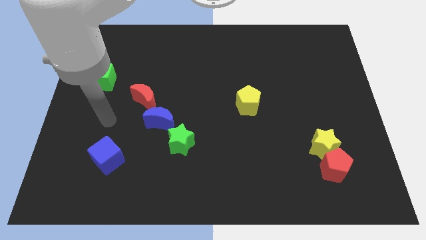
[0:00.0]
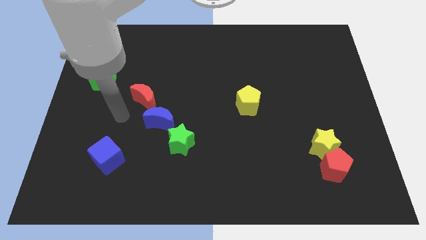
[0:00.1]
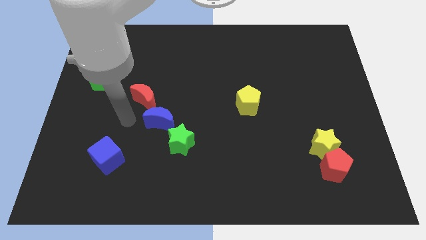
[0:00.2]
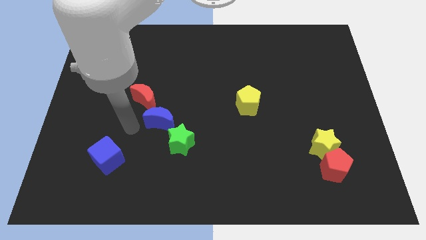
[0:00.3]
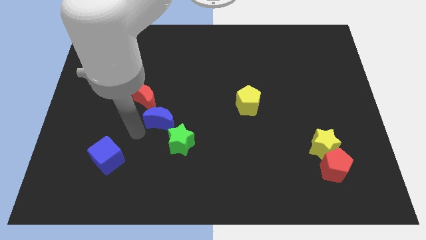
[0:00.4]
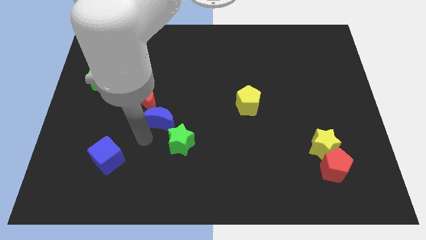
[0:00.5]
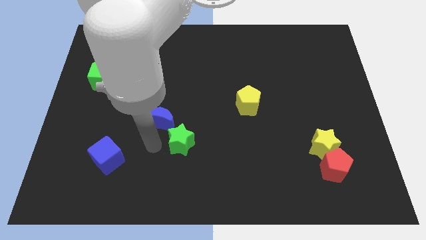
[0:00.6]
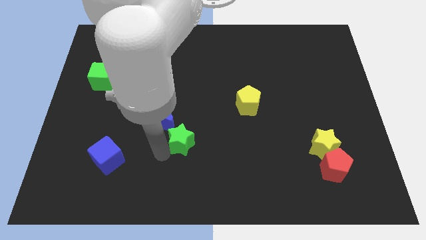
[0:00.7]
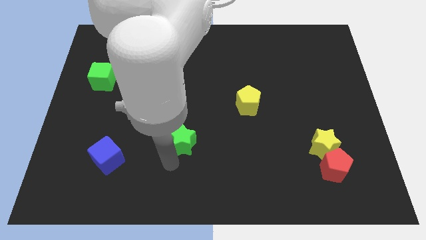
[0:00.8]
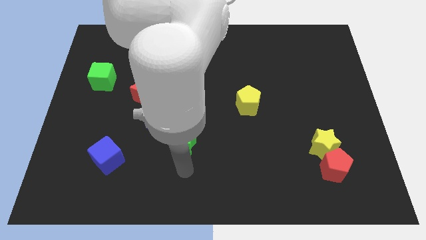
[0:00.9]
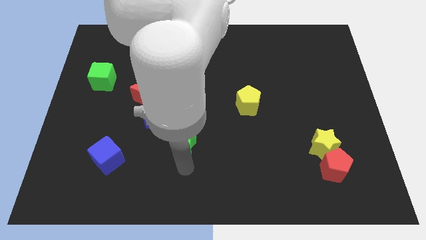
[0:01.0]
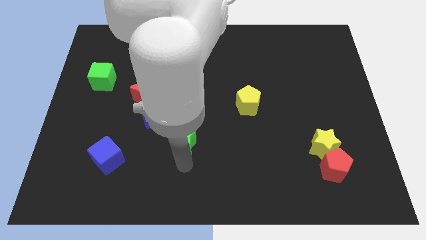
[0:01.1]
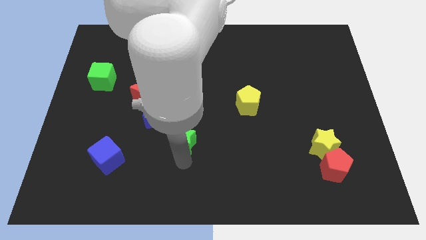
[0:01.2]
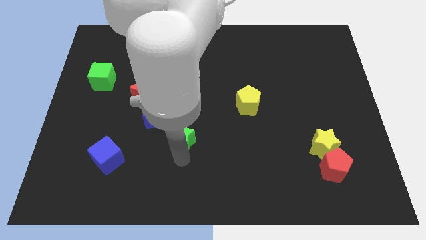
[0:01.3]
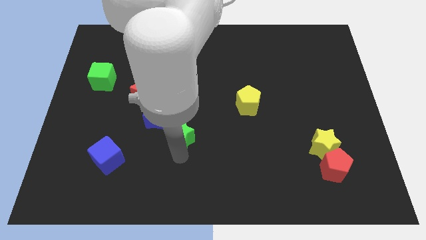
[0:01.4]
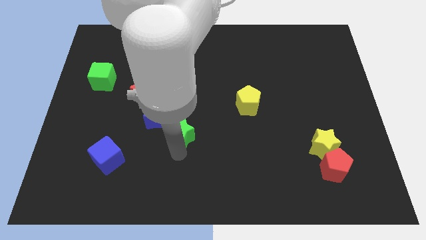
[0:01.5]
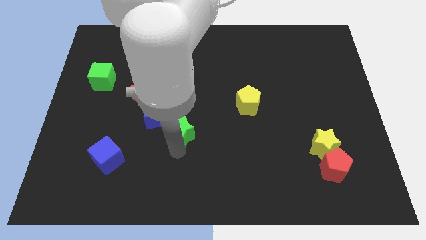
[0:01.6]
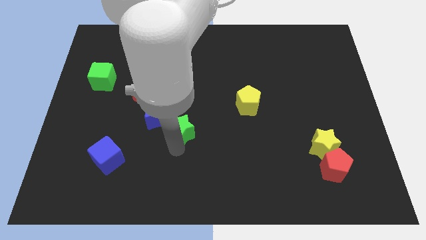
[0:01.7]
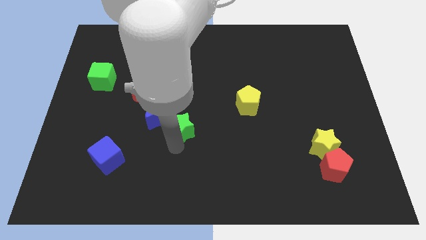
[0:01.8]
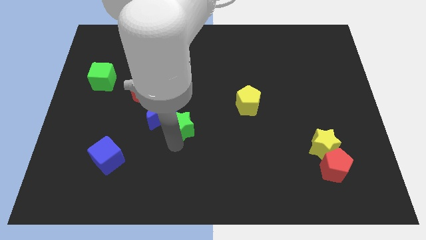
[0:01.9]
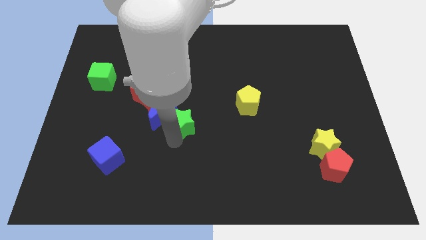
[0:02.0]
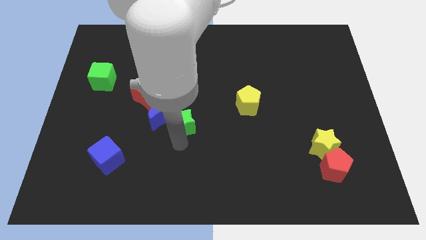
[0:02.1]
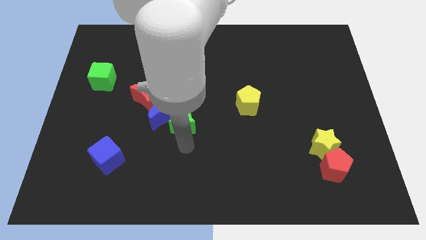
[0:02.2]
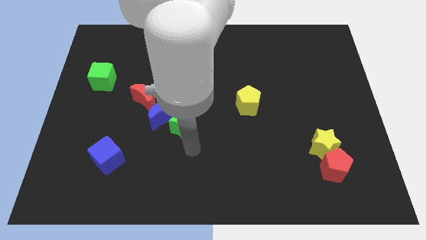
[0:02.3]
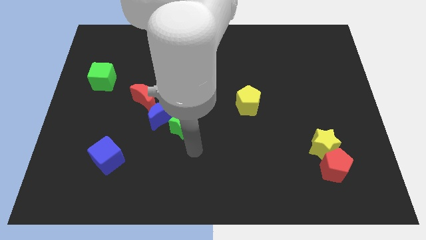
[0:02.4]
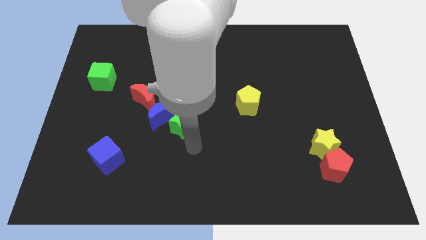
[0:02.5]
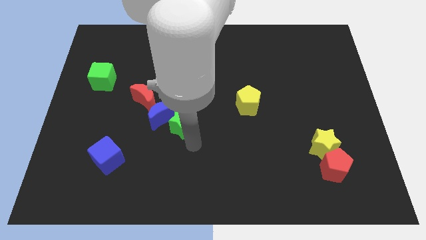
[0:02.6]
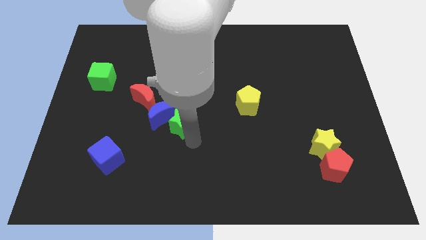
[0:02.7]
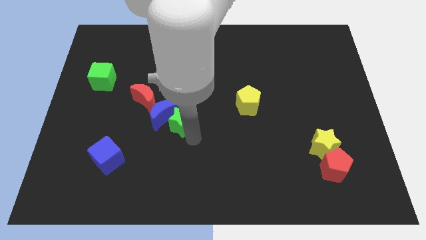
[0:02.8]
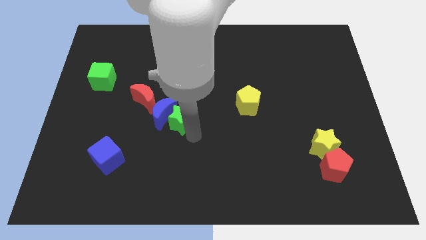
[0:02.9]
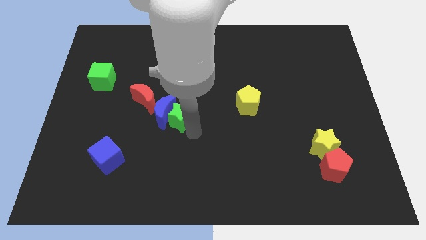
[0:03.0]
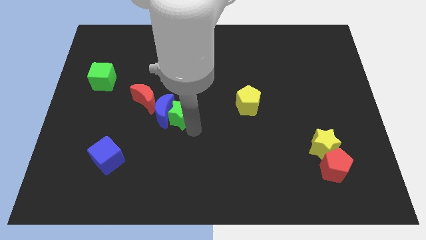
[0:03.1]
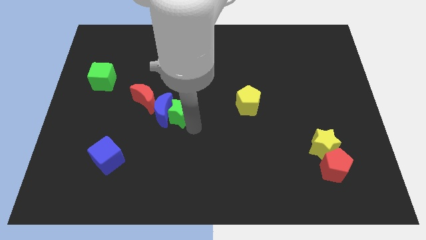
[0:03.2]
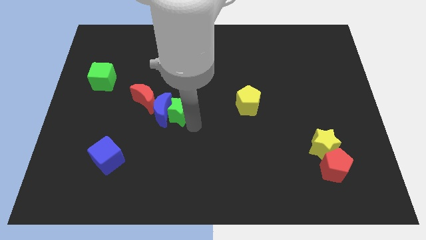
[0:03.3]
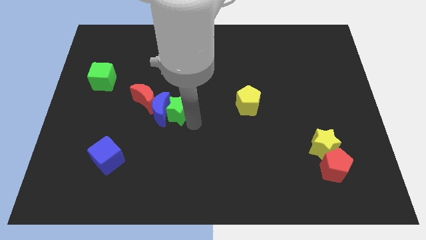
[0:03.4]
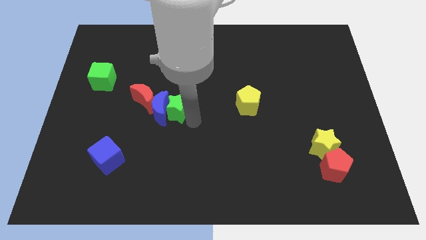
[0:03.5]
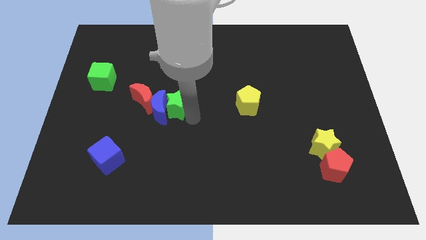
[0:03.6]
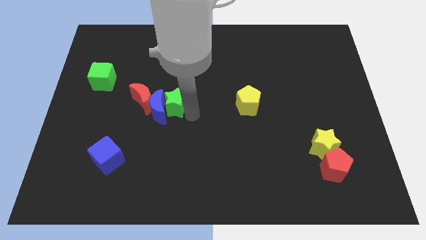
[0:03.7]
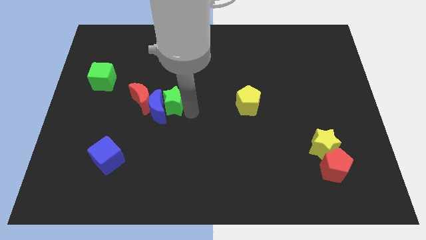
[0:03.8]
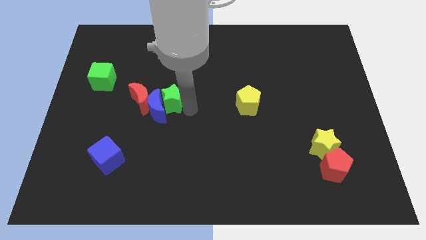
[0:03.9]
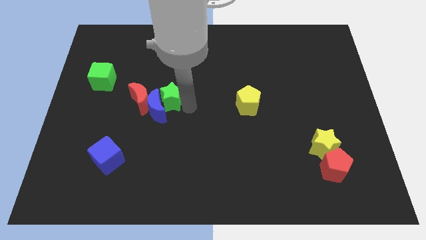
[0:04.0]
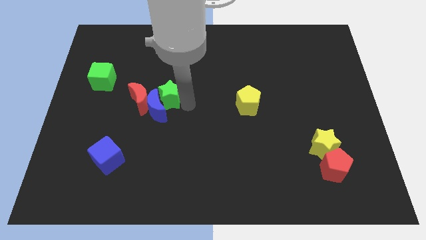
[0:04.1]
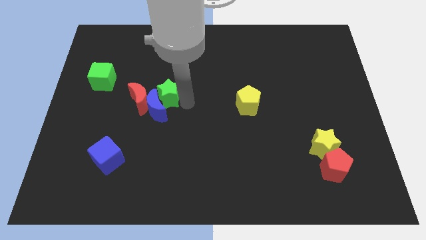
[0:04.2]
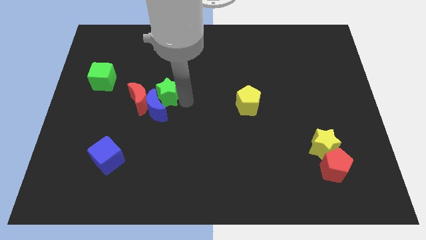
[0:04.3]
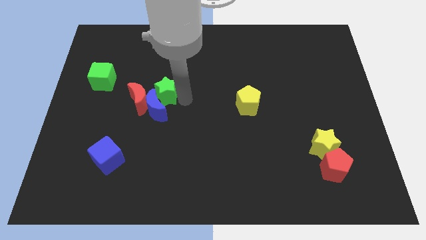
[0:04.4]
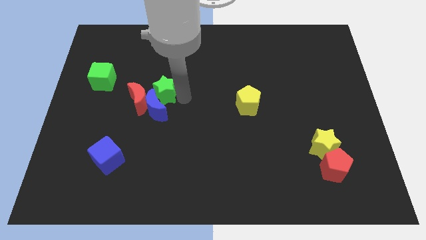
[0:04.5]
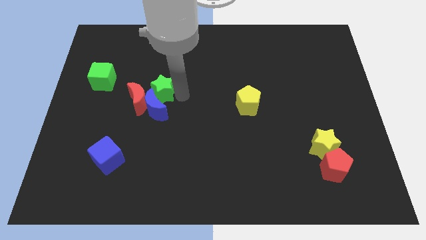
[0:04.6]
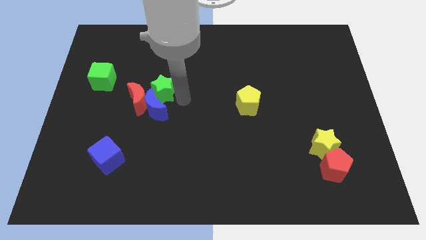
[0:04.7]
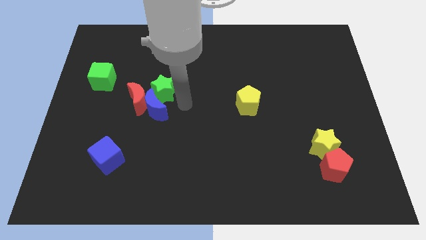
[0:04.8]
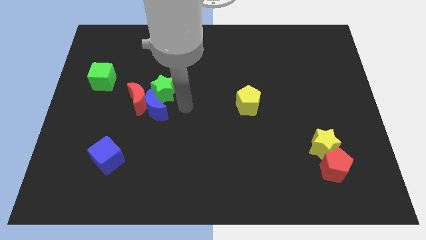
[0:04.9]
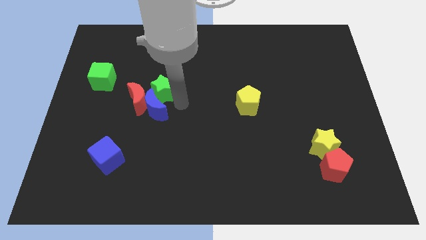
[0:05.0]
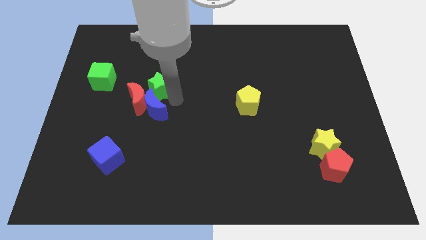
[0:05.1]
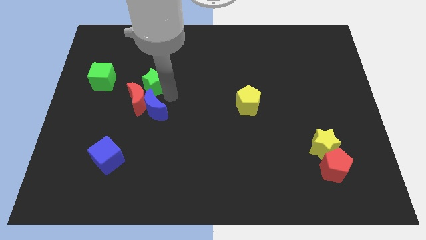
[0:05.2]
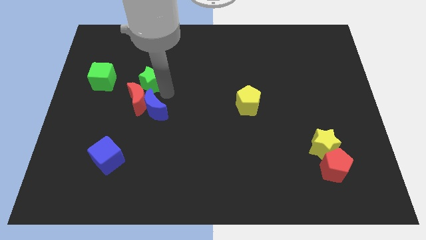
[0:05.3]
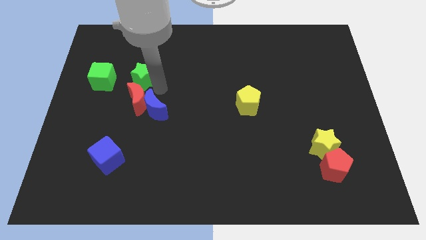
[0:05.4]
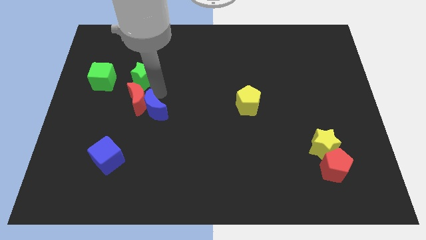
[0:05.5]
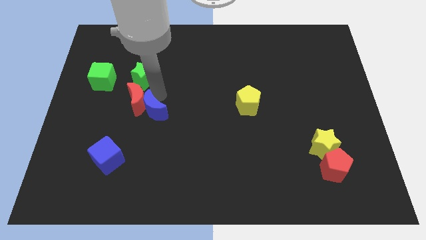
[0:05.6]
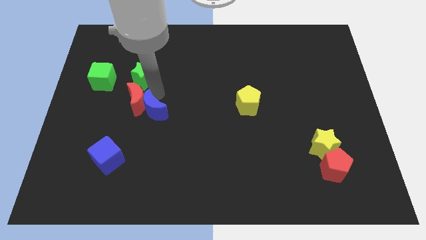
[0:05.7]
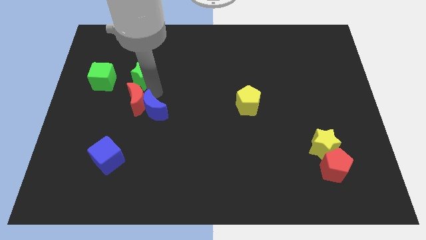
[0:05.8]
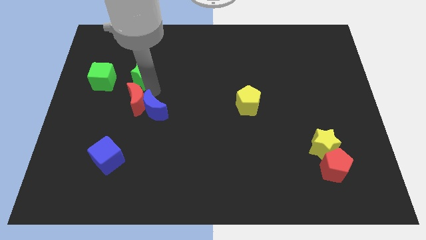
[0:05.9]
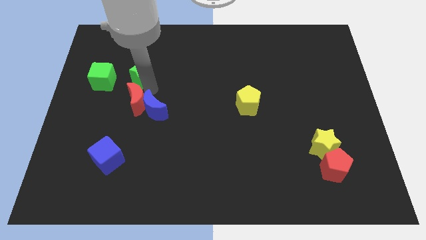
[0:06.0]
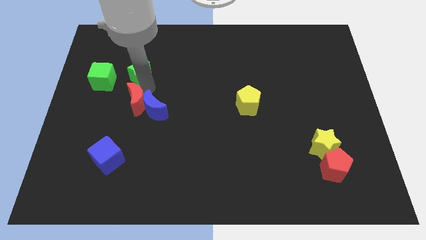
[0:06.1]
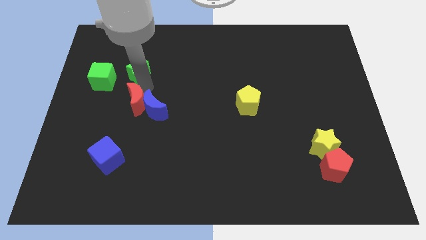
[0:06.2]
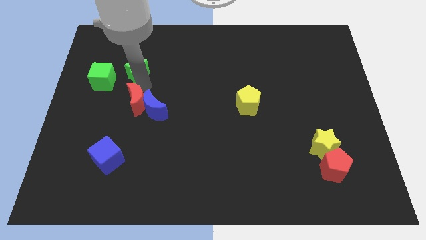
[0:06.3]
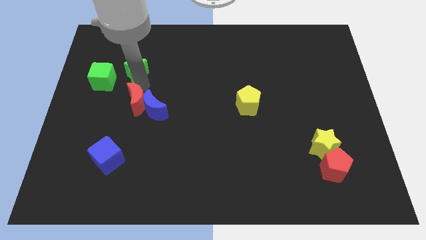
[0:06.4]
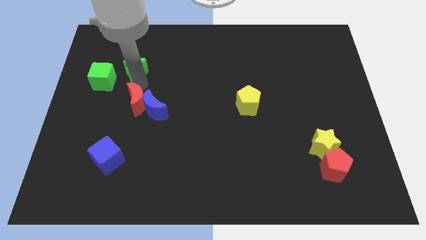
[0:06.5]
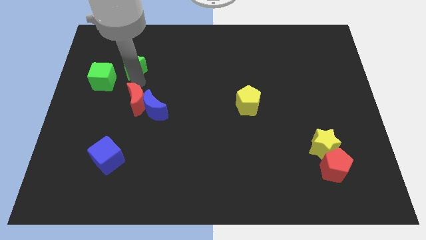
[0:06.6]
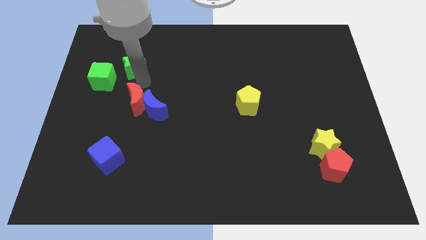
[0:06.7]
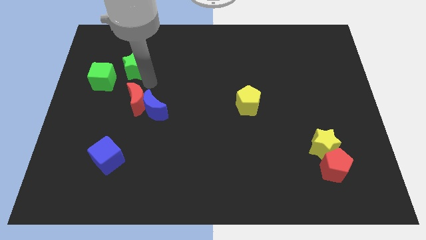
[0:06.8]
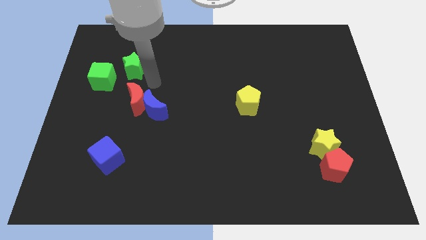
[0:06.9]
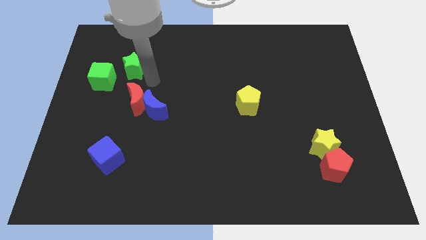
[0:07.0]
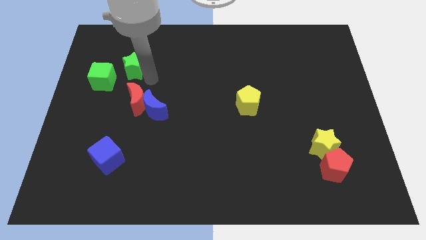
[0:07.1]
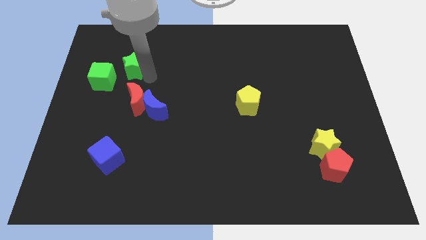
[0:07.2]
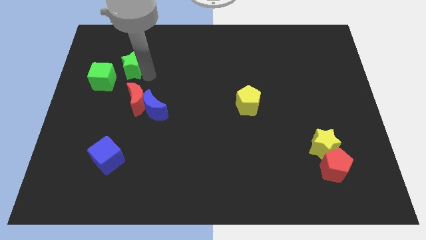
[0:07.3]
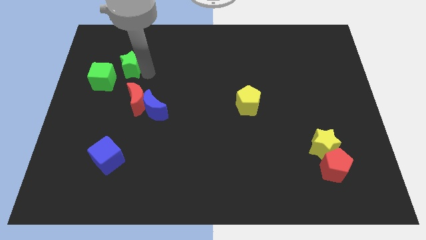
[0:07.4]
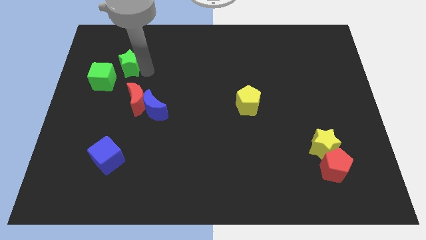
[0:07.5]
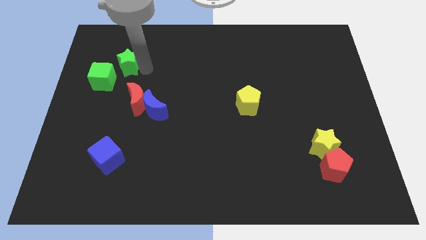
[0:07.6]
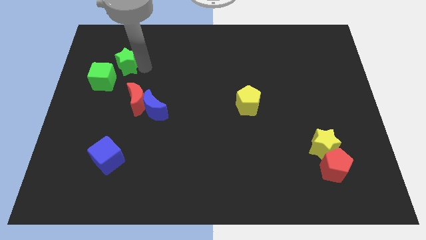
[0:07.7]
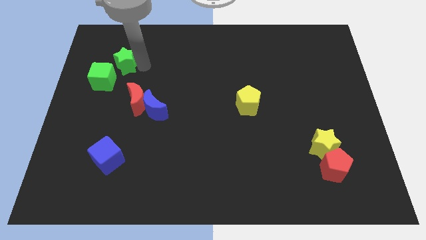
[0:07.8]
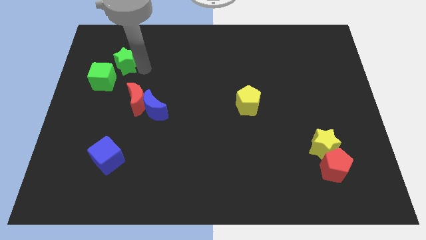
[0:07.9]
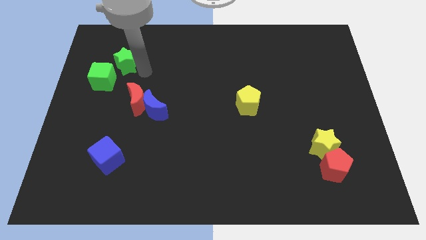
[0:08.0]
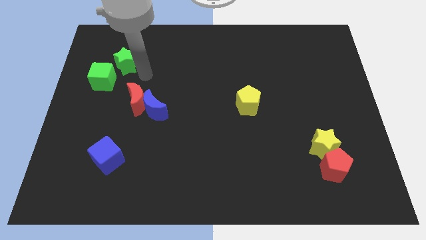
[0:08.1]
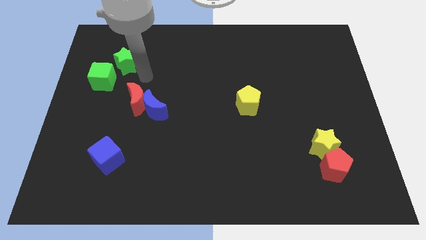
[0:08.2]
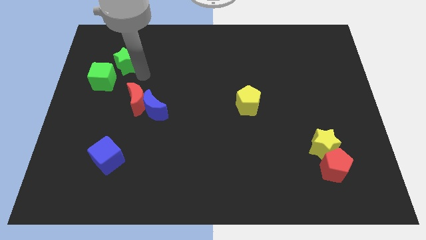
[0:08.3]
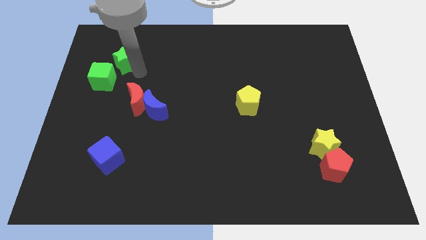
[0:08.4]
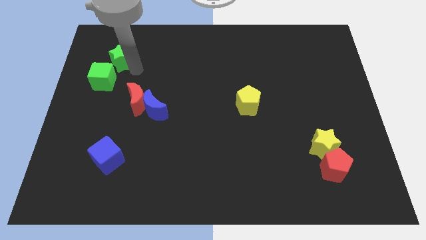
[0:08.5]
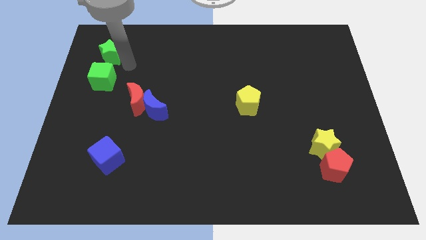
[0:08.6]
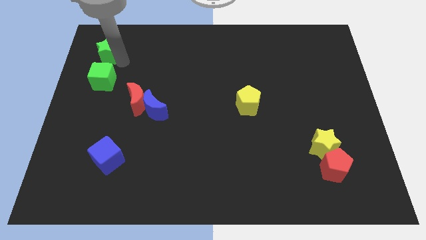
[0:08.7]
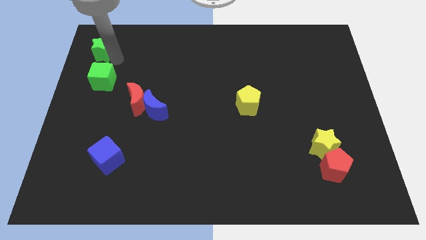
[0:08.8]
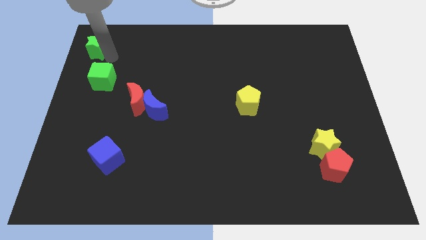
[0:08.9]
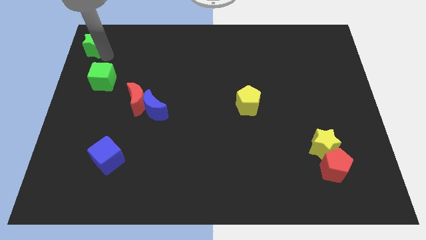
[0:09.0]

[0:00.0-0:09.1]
move the green star to the top left corner
